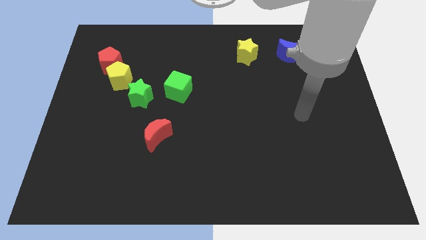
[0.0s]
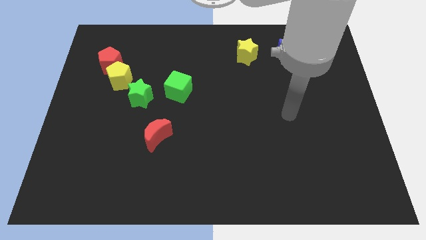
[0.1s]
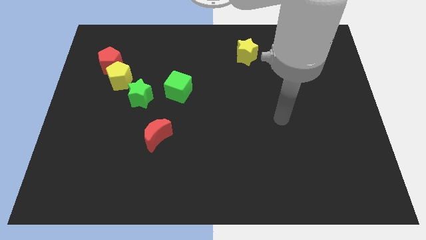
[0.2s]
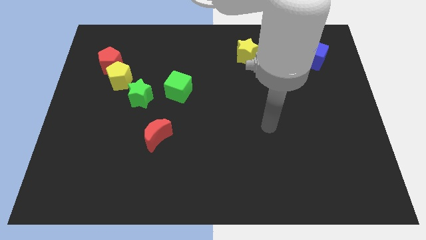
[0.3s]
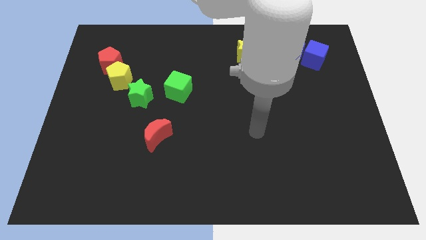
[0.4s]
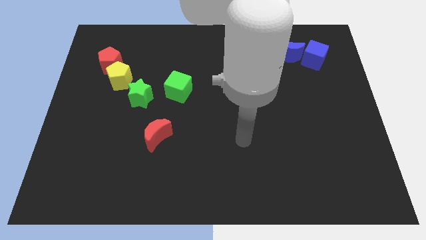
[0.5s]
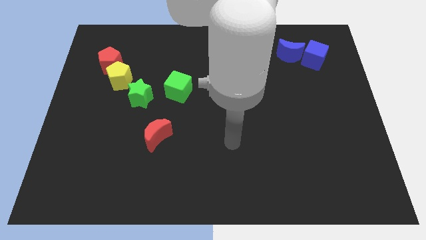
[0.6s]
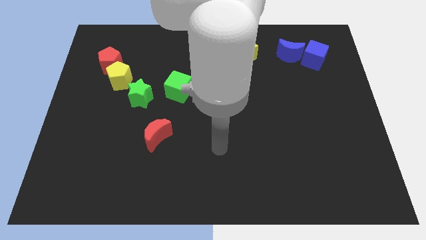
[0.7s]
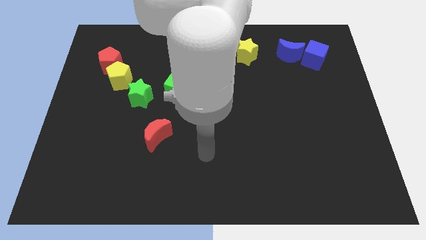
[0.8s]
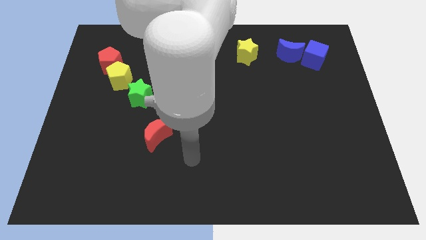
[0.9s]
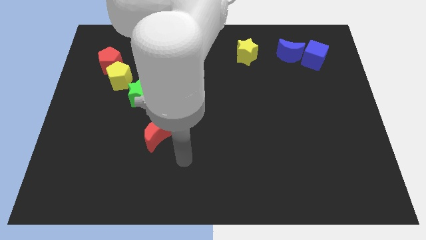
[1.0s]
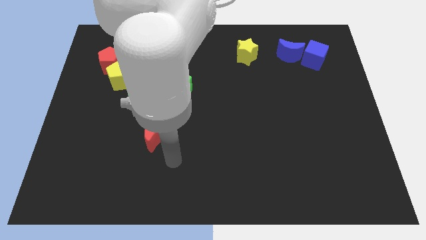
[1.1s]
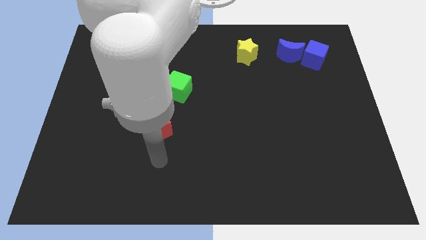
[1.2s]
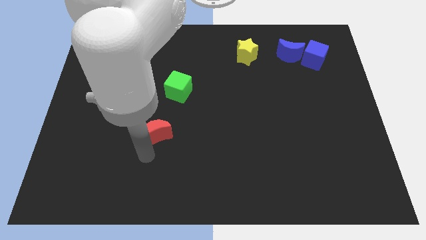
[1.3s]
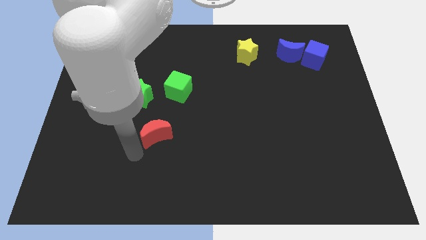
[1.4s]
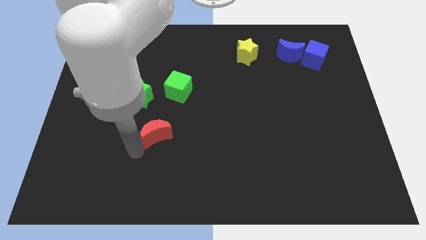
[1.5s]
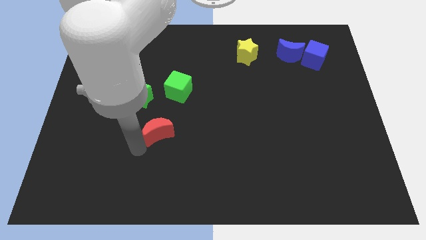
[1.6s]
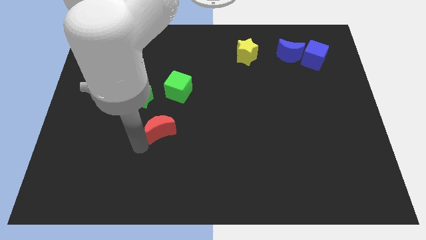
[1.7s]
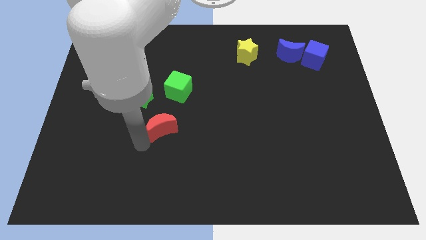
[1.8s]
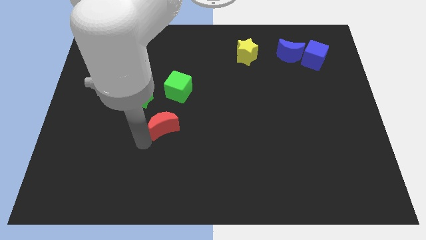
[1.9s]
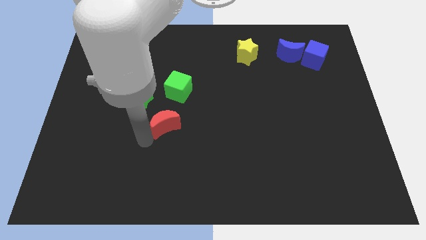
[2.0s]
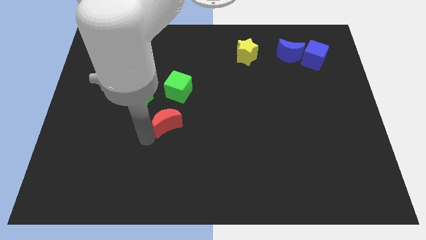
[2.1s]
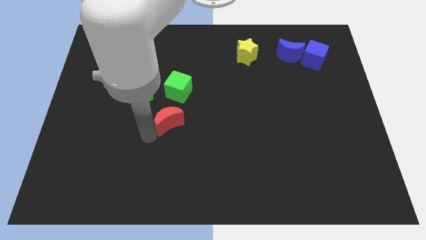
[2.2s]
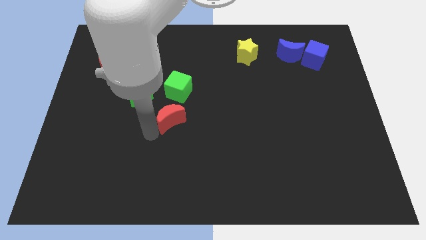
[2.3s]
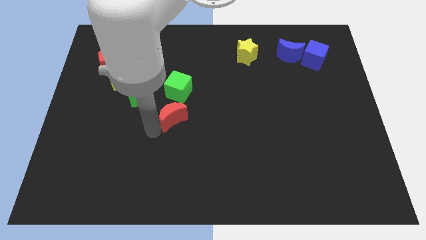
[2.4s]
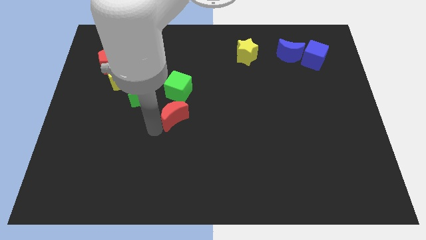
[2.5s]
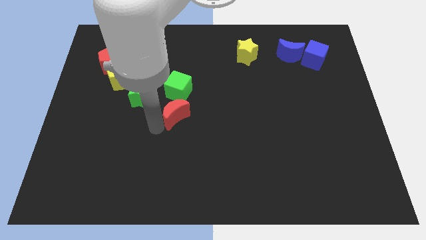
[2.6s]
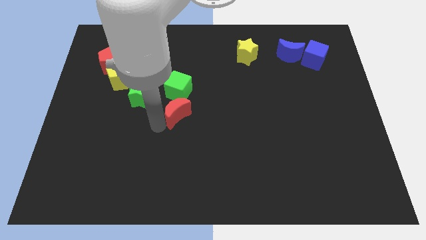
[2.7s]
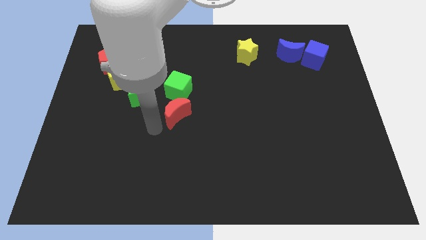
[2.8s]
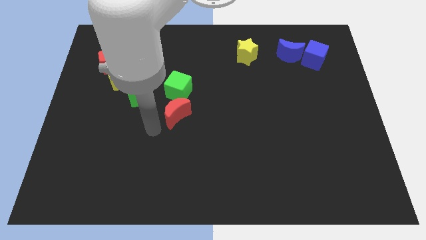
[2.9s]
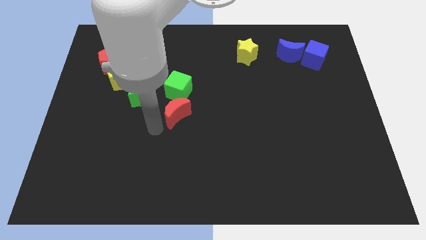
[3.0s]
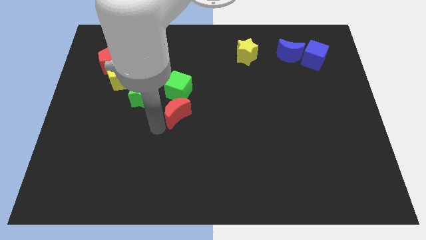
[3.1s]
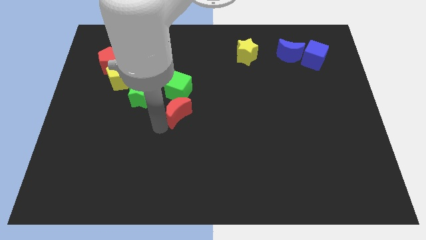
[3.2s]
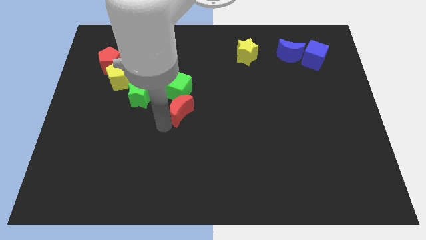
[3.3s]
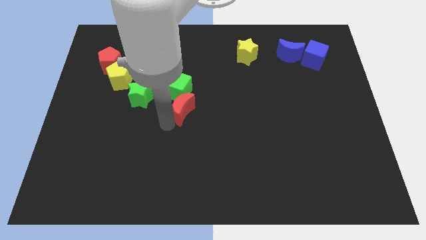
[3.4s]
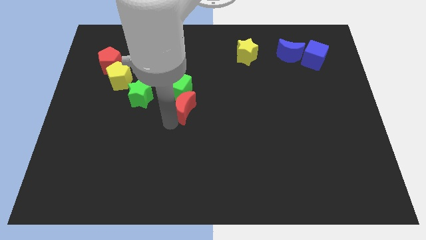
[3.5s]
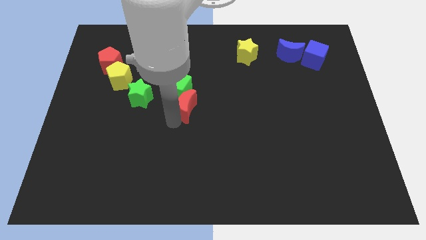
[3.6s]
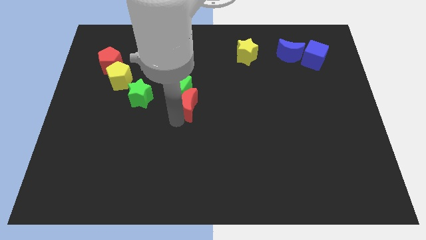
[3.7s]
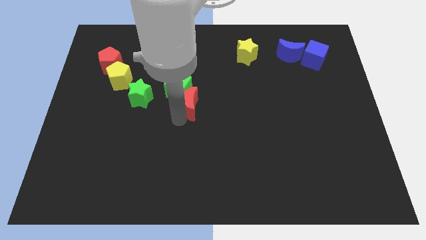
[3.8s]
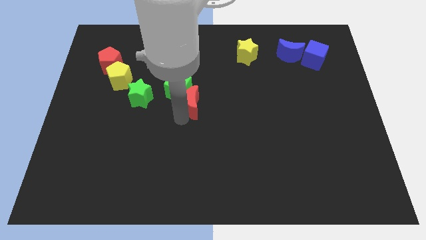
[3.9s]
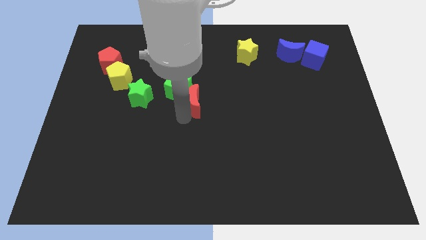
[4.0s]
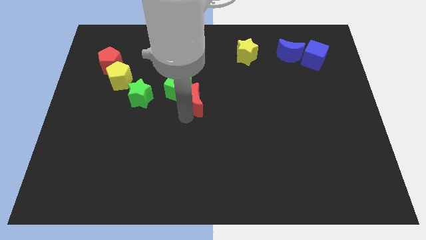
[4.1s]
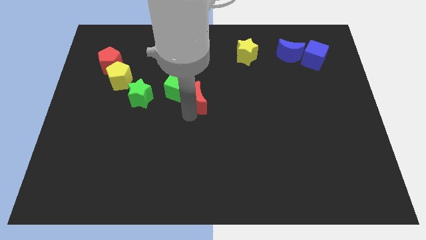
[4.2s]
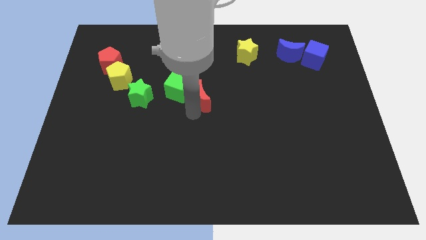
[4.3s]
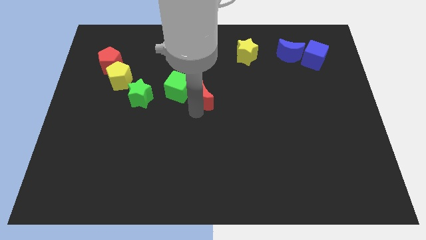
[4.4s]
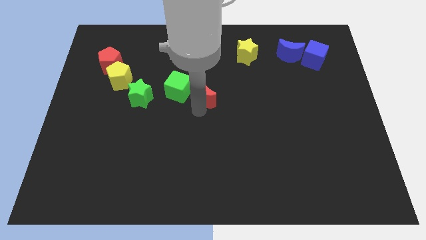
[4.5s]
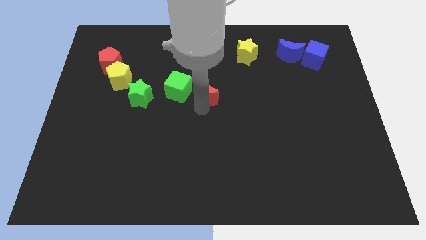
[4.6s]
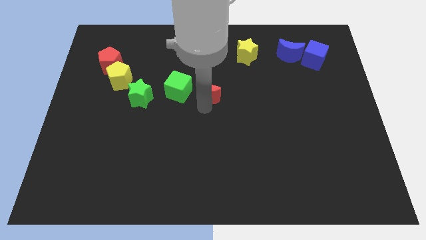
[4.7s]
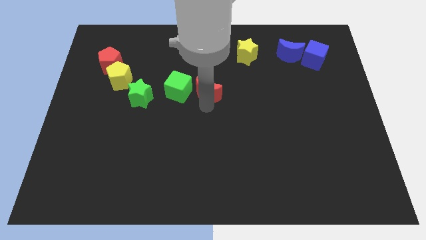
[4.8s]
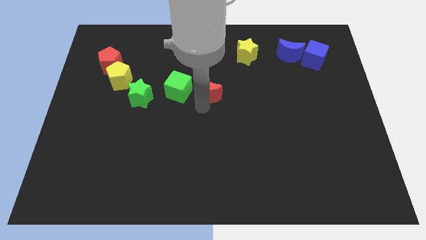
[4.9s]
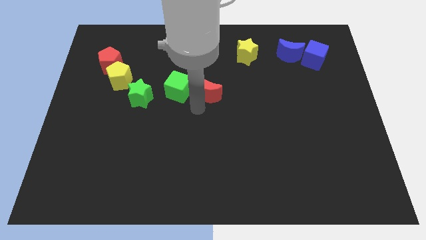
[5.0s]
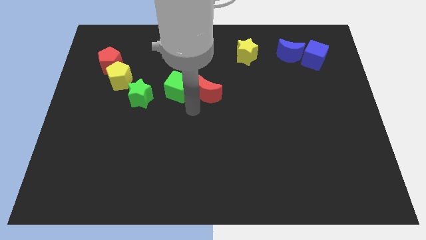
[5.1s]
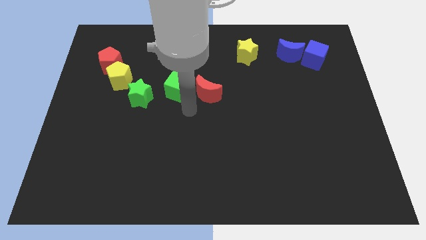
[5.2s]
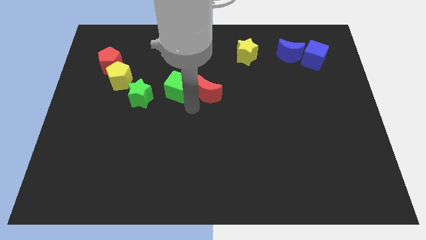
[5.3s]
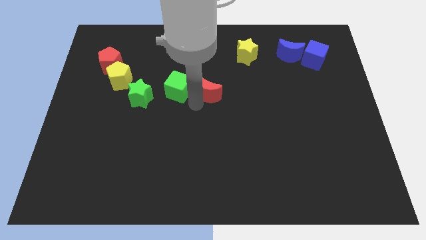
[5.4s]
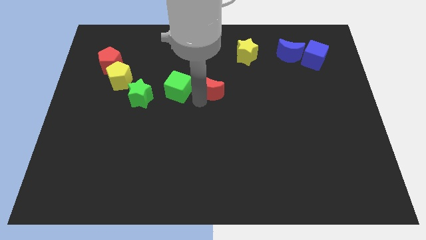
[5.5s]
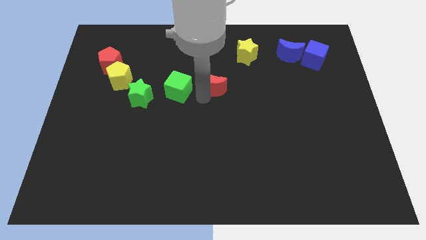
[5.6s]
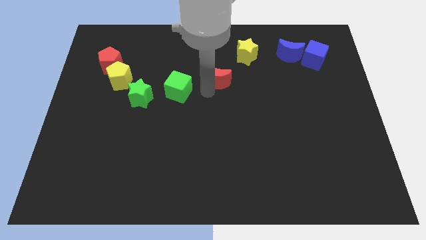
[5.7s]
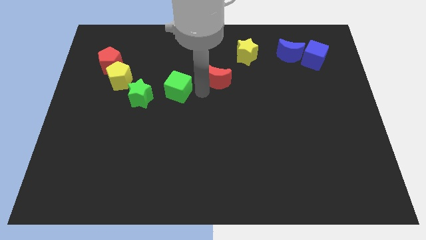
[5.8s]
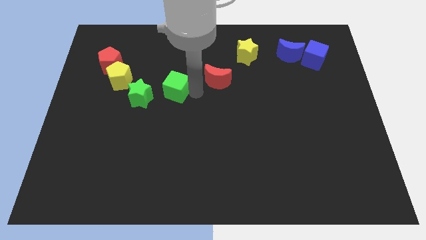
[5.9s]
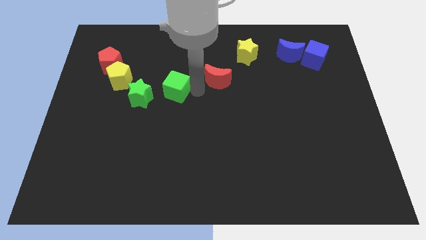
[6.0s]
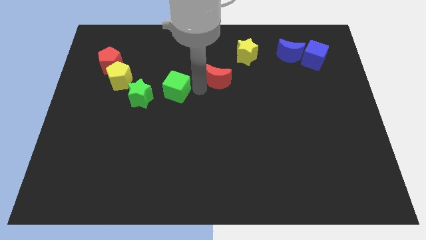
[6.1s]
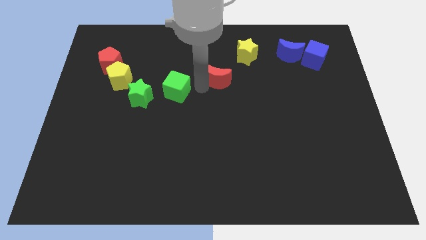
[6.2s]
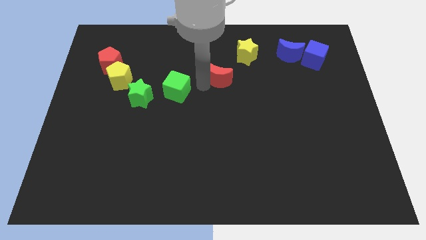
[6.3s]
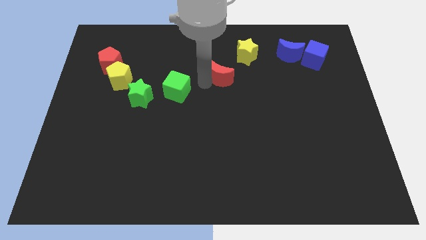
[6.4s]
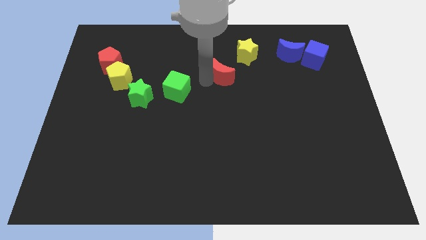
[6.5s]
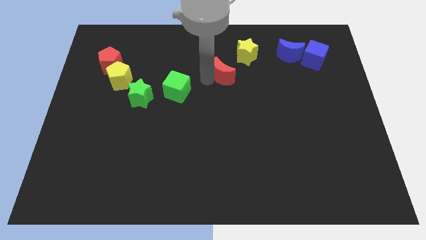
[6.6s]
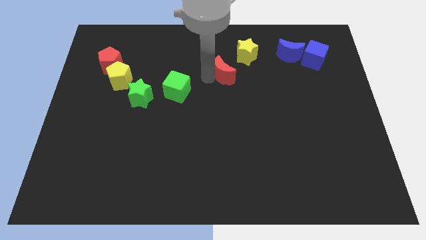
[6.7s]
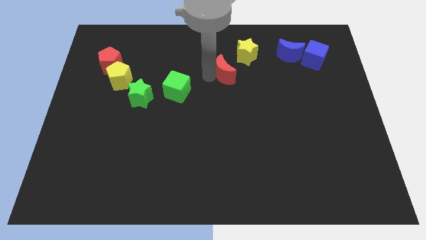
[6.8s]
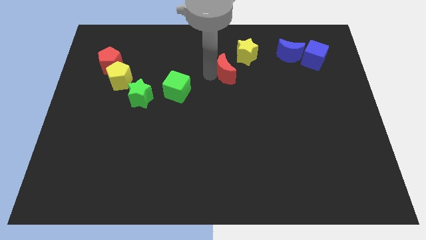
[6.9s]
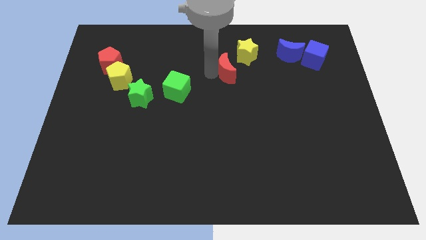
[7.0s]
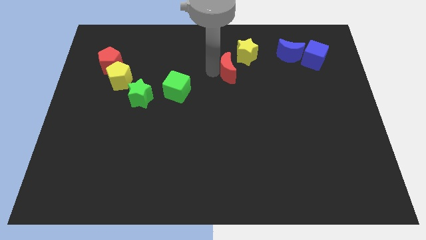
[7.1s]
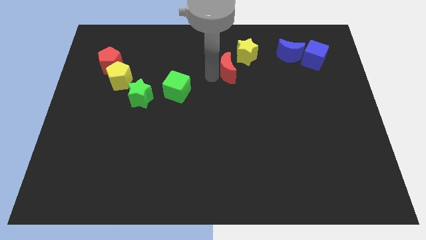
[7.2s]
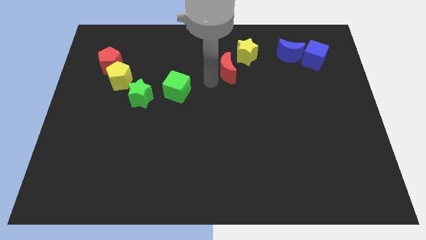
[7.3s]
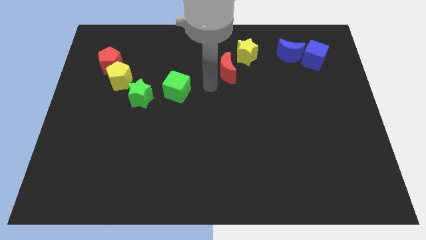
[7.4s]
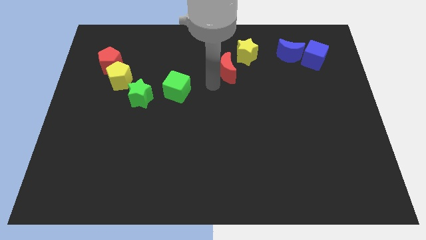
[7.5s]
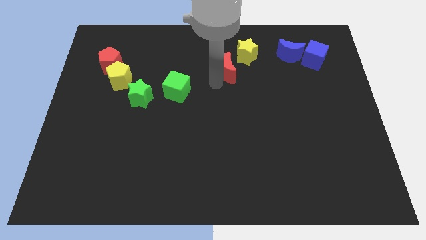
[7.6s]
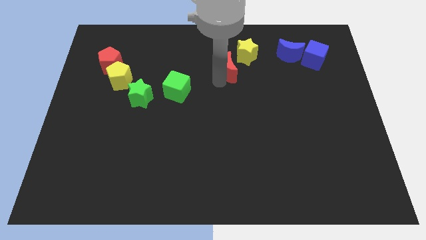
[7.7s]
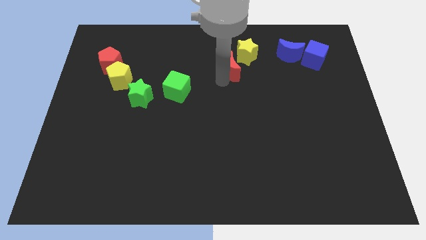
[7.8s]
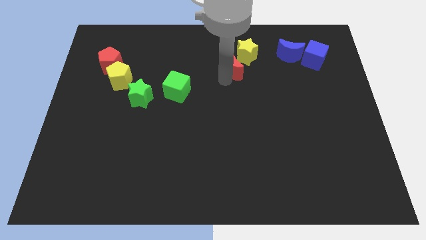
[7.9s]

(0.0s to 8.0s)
slide the red moon to the yellow star
